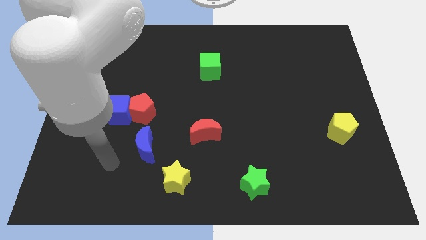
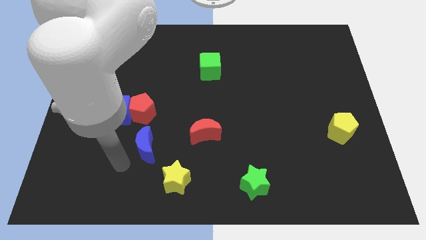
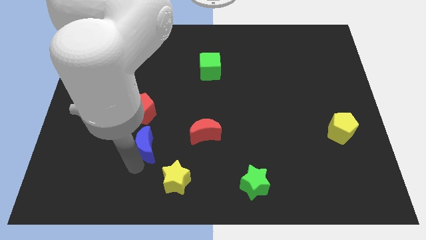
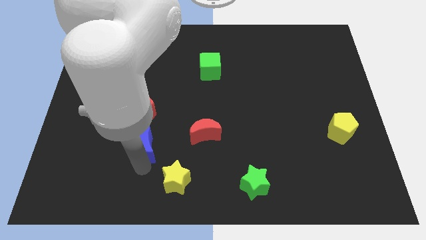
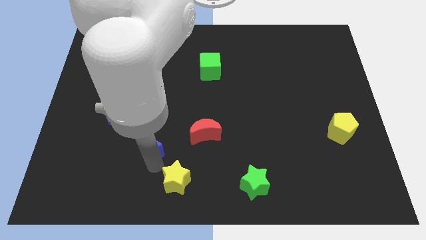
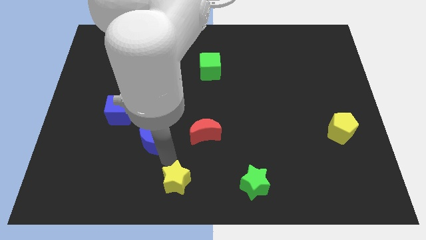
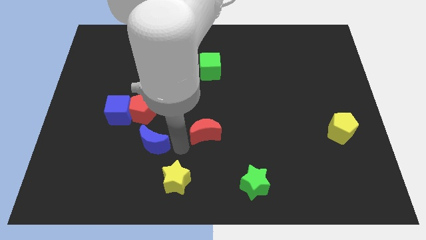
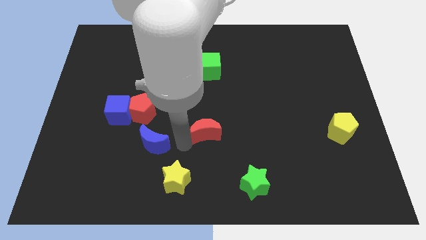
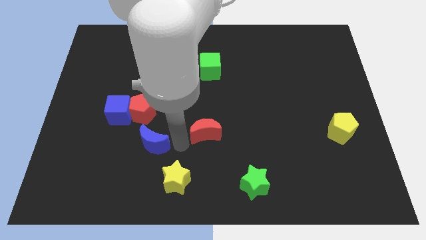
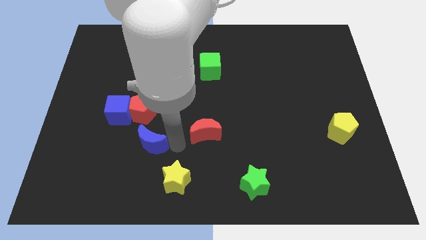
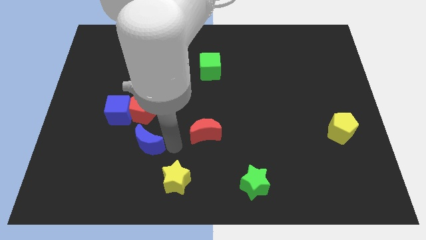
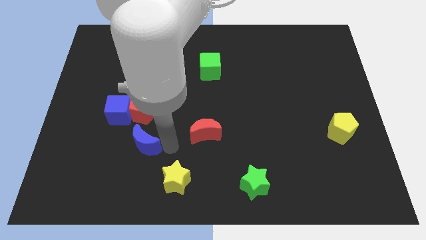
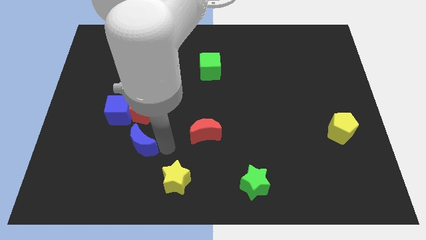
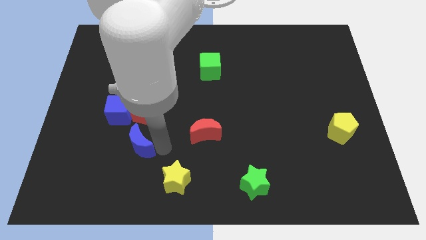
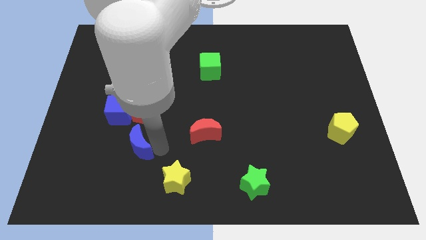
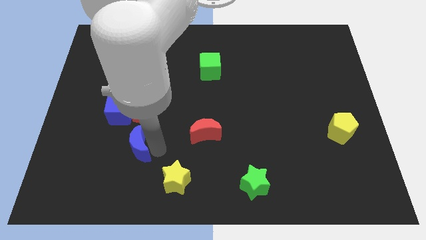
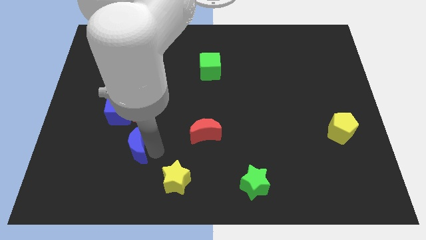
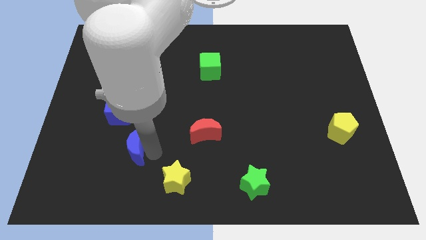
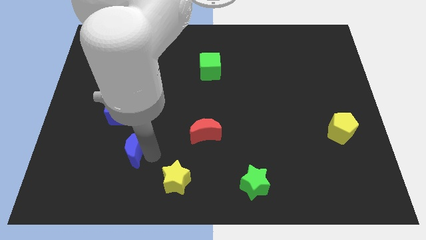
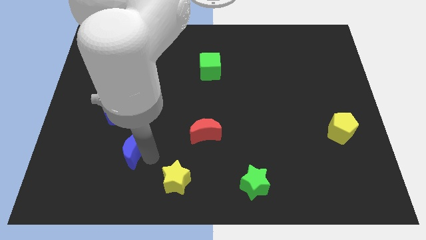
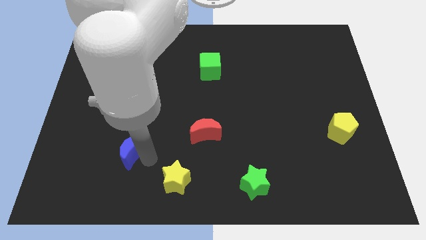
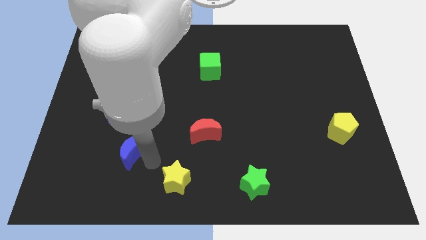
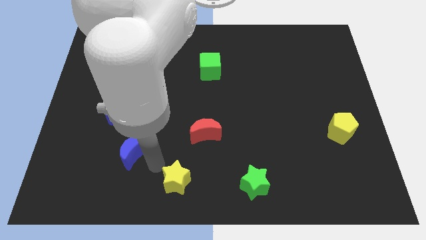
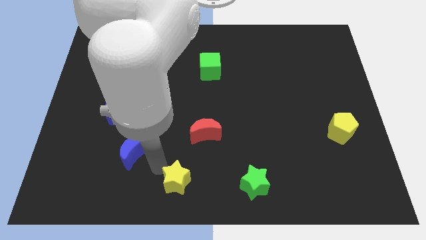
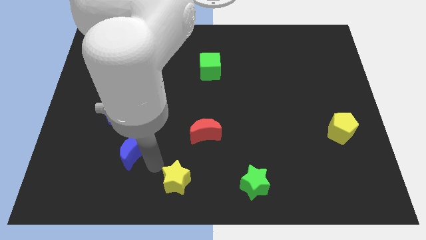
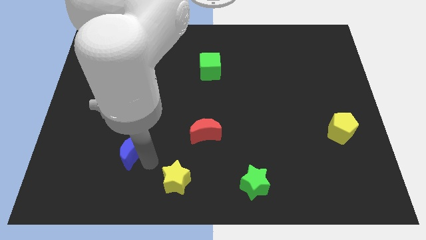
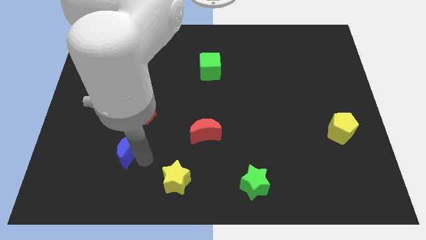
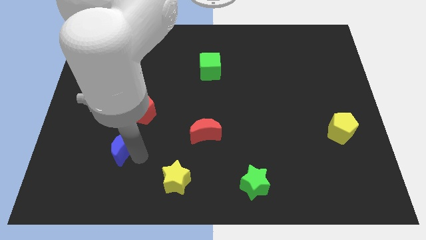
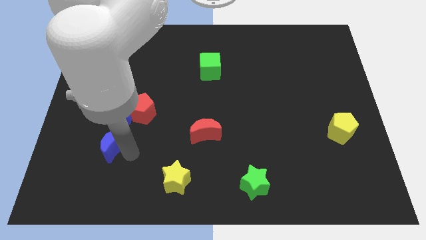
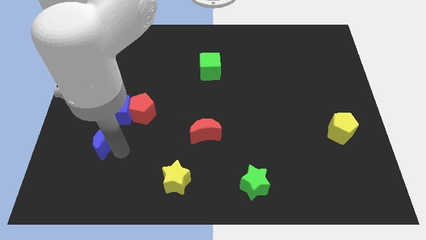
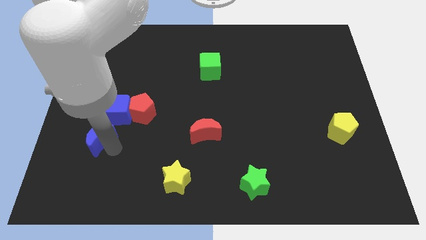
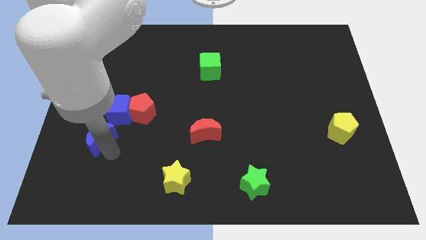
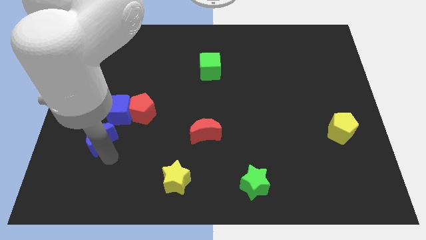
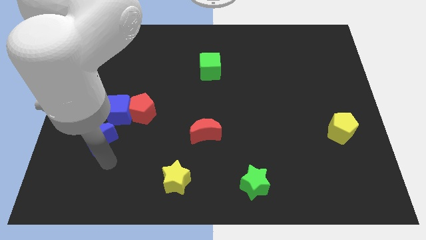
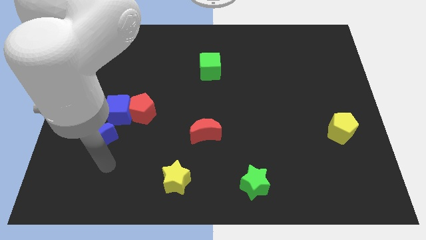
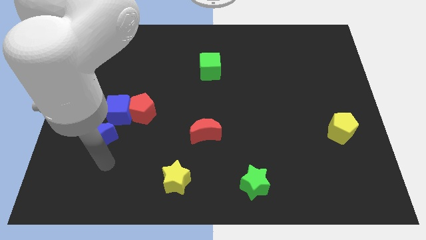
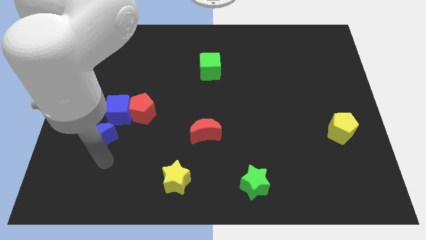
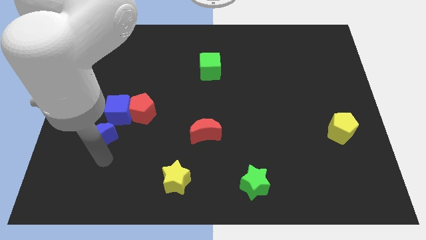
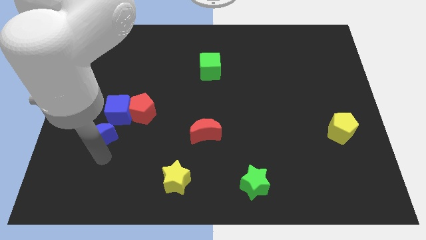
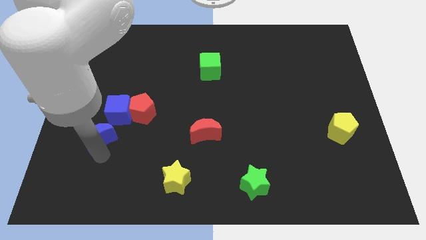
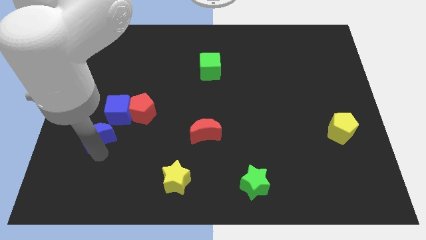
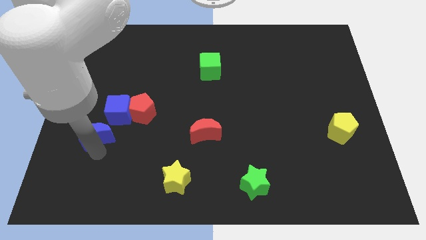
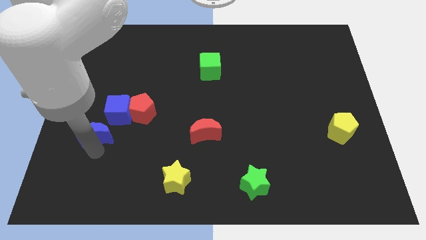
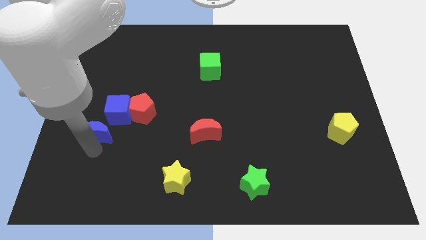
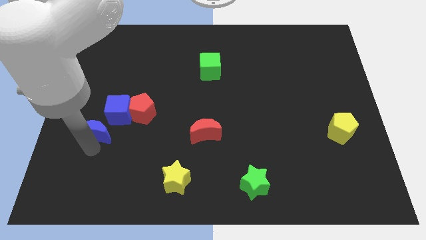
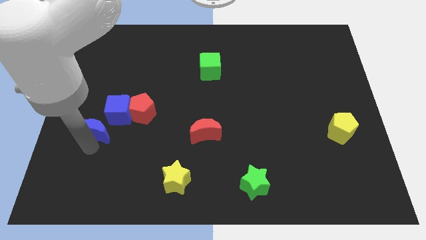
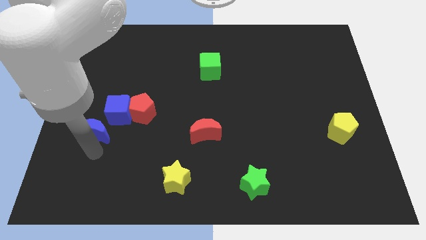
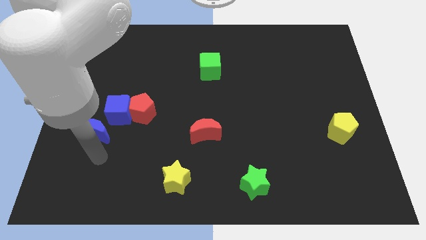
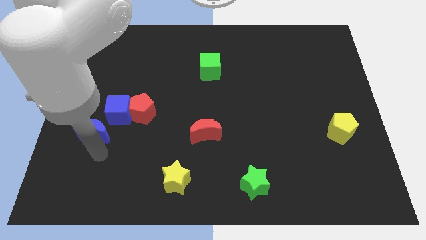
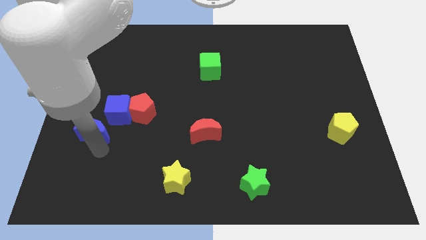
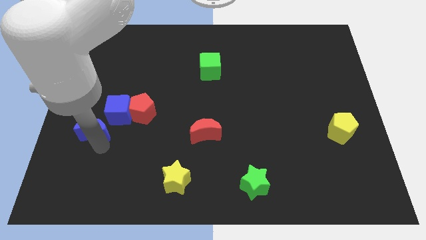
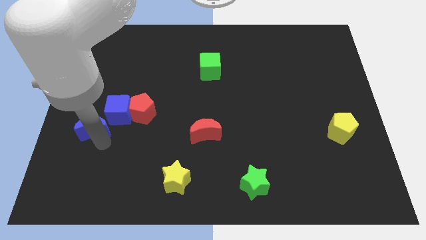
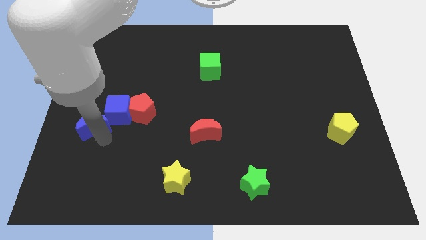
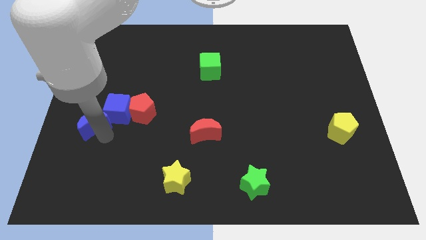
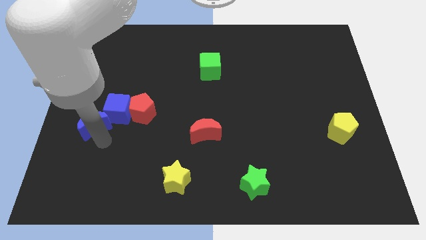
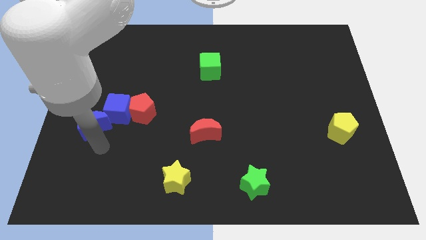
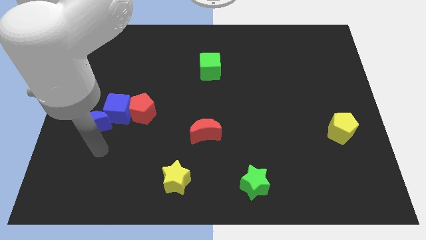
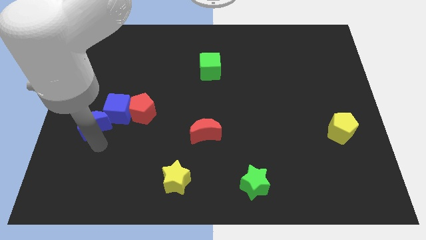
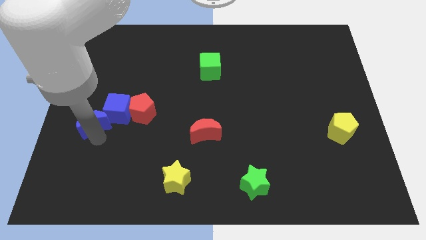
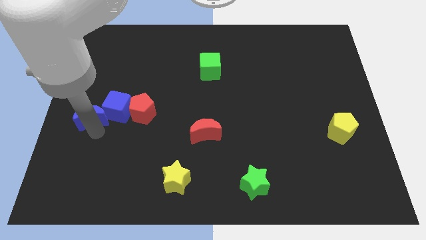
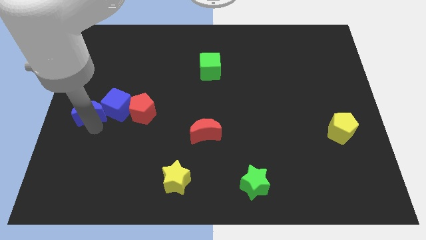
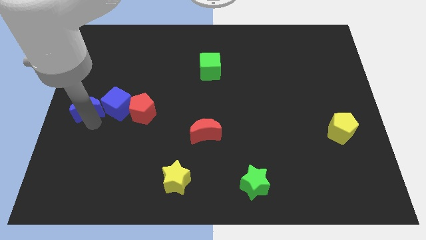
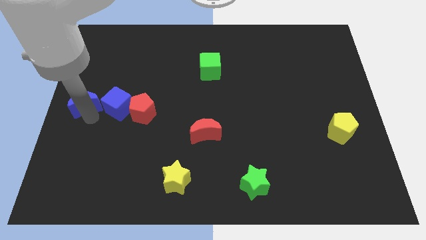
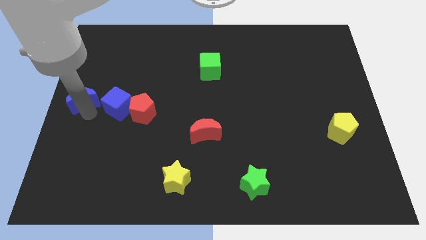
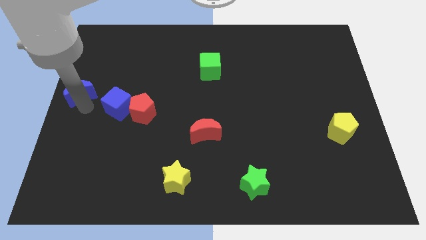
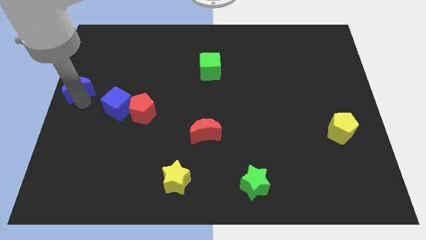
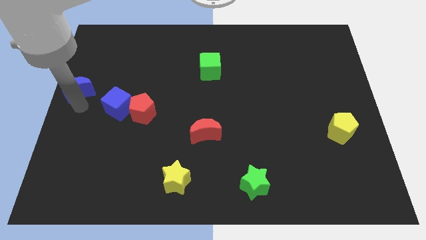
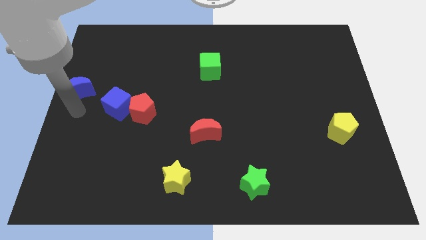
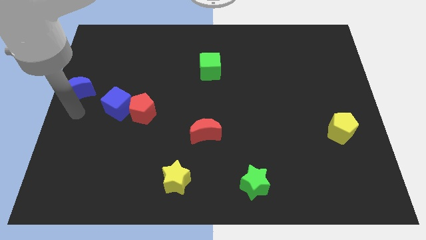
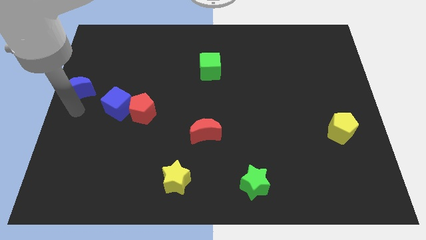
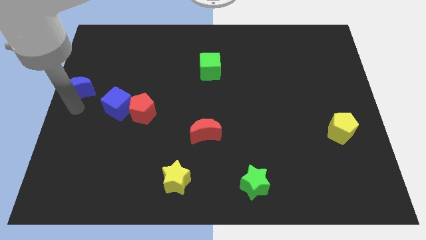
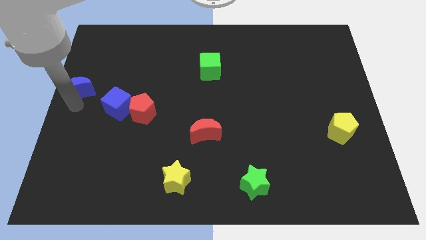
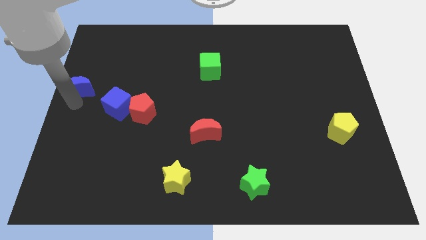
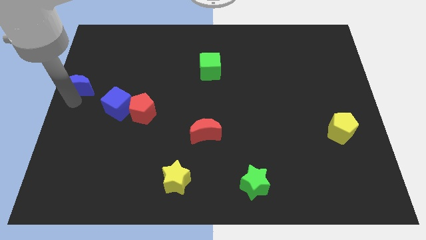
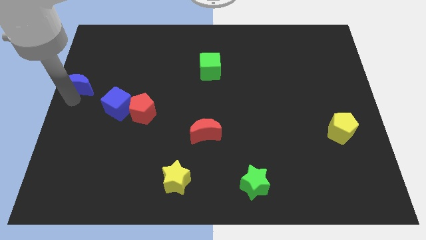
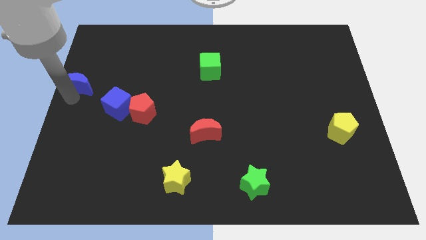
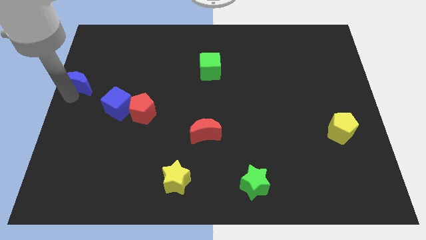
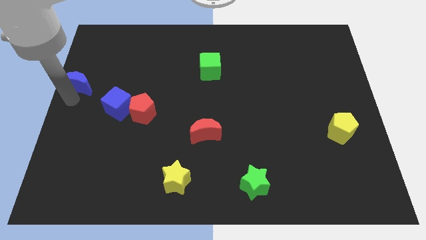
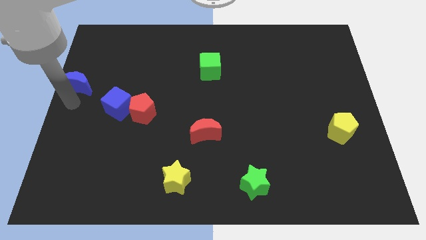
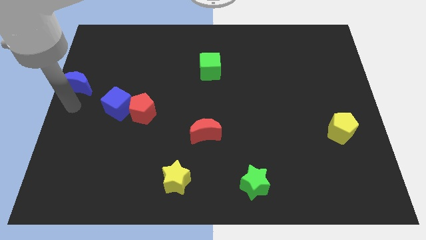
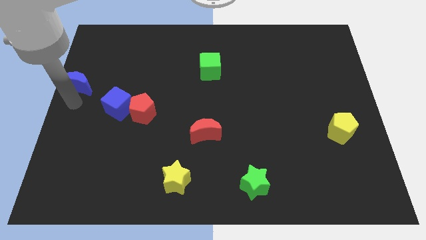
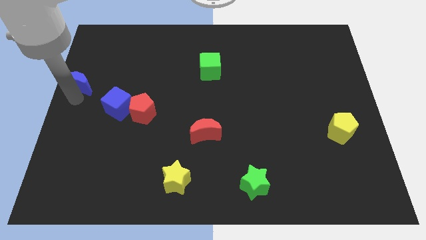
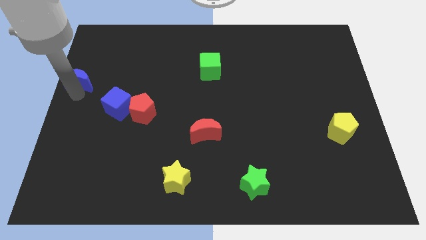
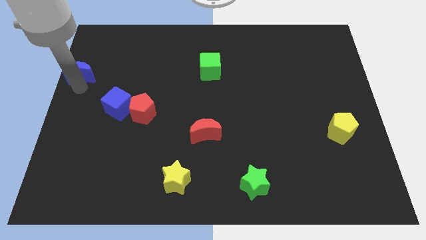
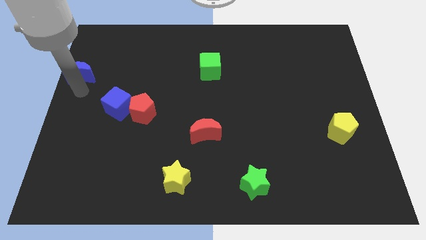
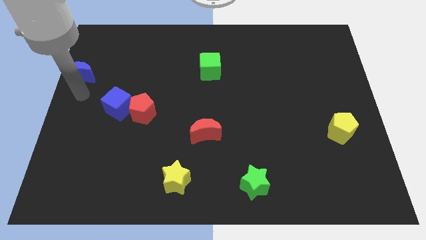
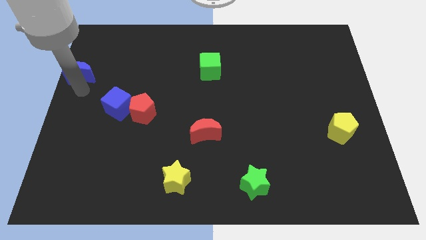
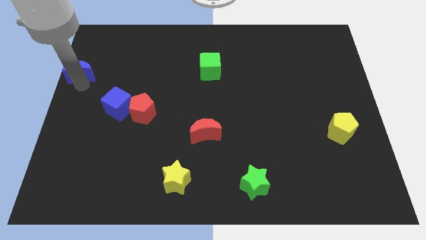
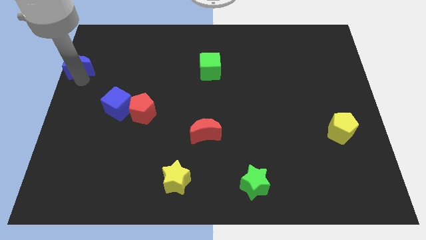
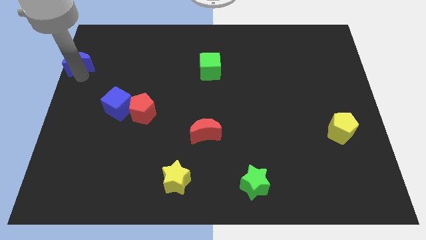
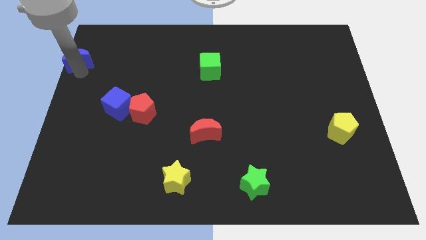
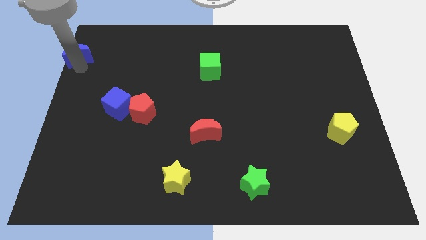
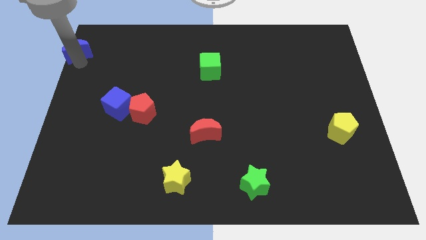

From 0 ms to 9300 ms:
put the blue moon to the top left
